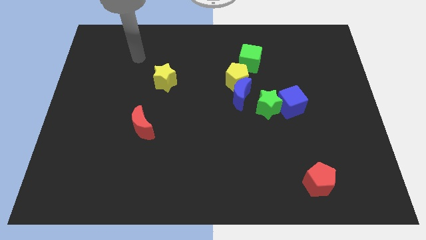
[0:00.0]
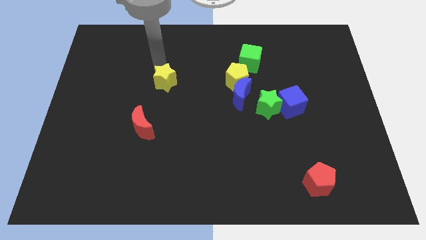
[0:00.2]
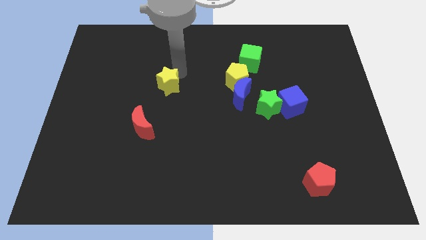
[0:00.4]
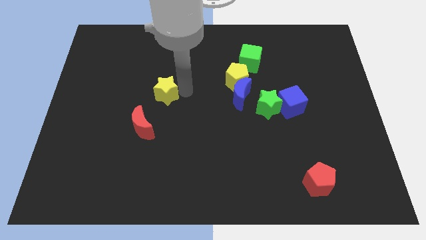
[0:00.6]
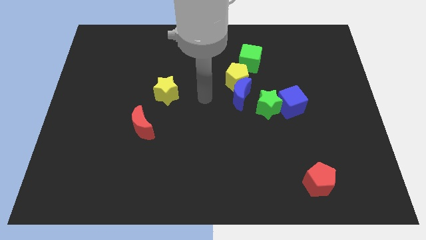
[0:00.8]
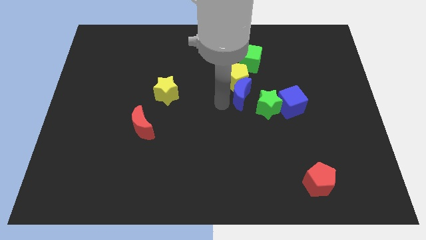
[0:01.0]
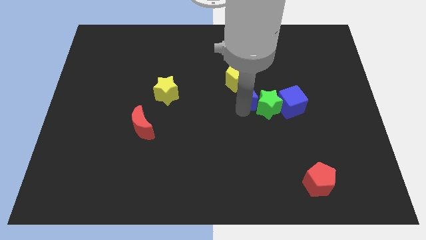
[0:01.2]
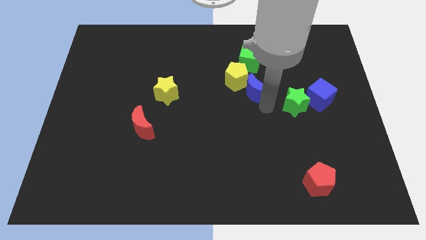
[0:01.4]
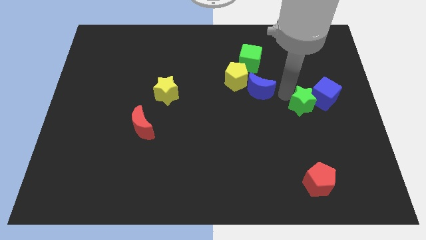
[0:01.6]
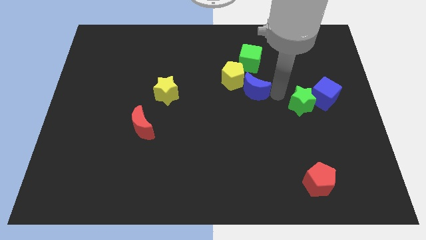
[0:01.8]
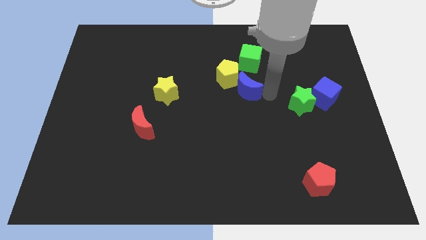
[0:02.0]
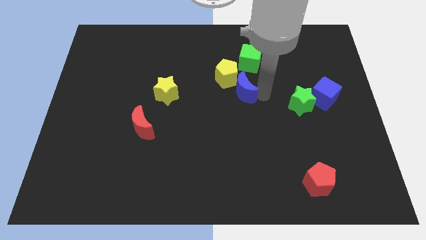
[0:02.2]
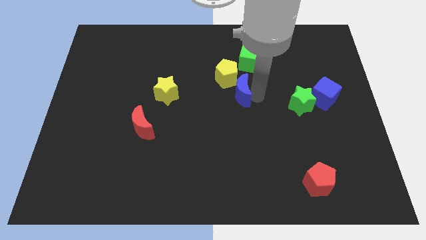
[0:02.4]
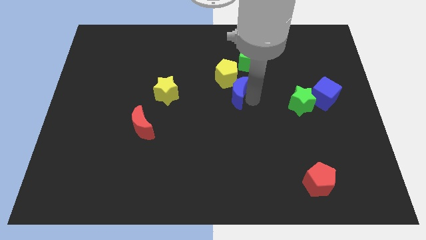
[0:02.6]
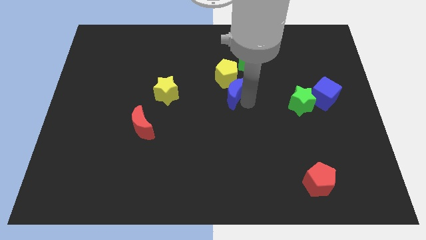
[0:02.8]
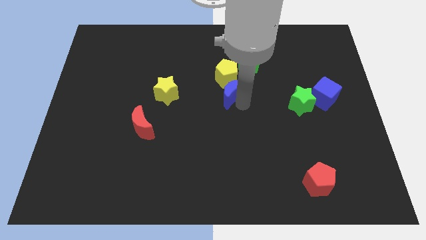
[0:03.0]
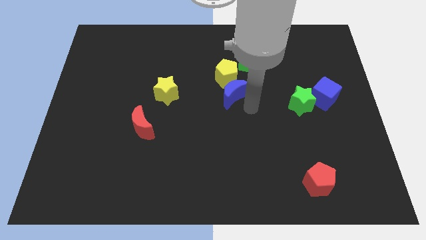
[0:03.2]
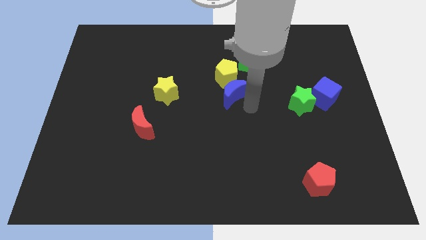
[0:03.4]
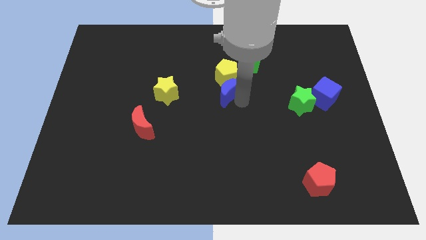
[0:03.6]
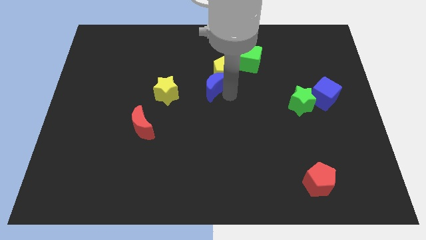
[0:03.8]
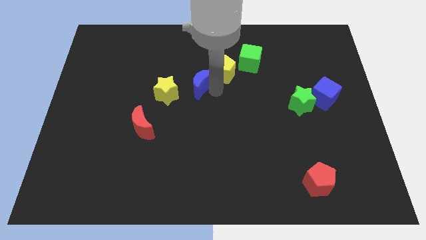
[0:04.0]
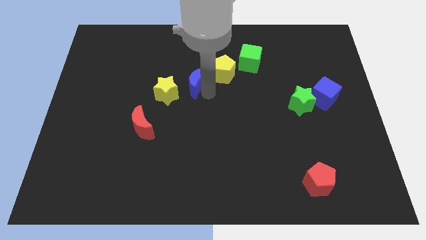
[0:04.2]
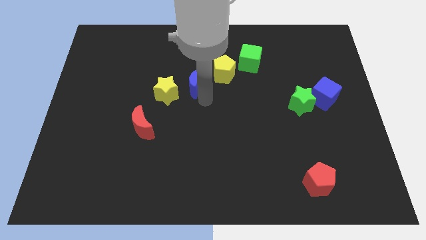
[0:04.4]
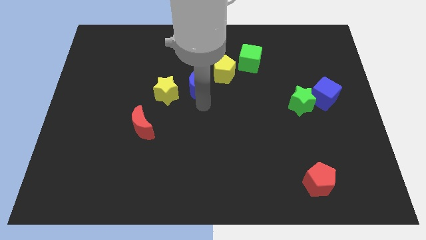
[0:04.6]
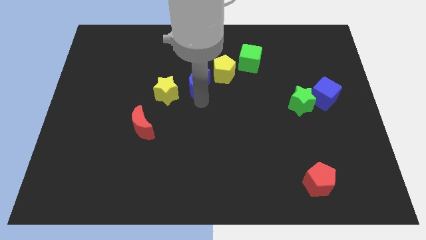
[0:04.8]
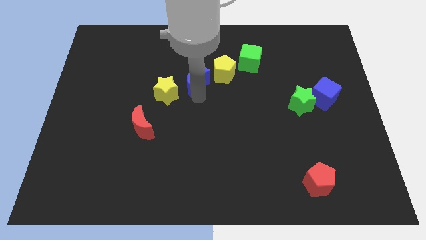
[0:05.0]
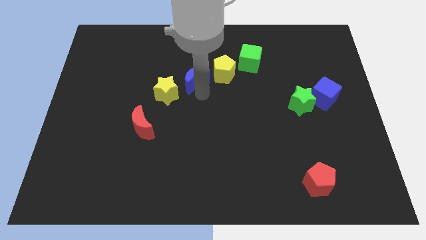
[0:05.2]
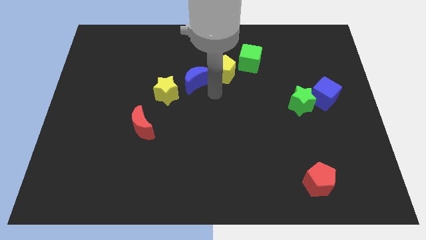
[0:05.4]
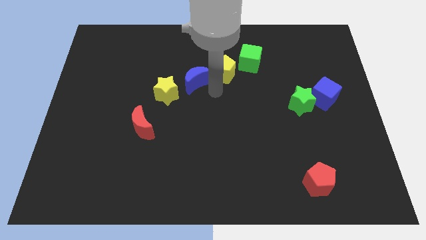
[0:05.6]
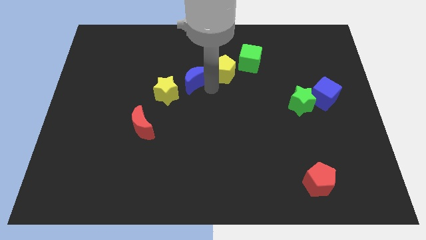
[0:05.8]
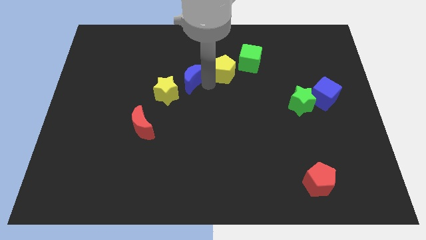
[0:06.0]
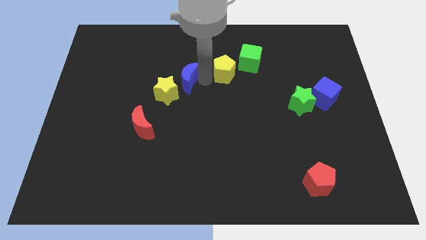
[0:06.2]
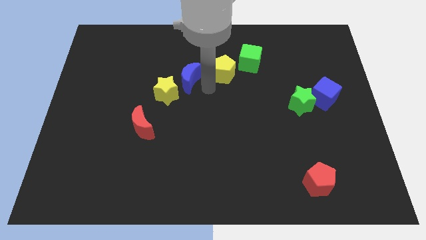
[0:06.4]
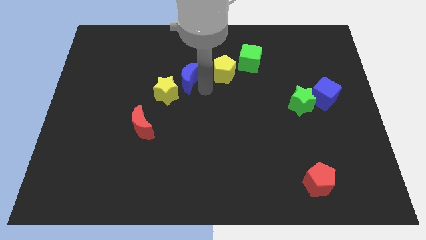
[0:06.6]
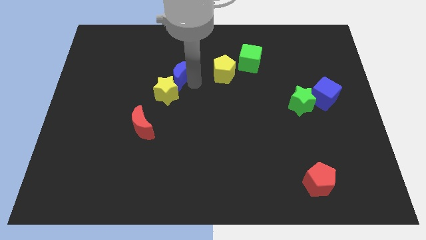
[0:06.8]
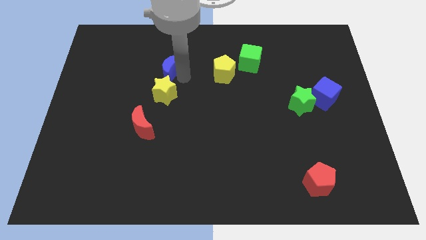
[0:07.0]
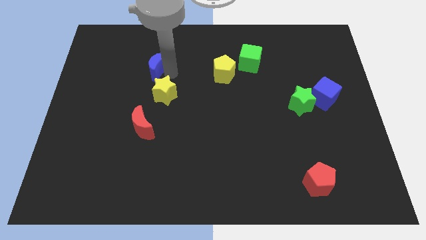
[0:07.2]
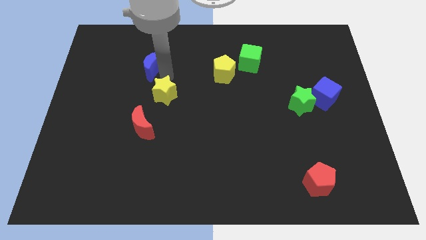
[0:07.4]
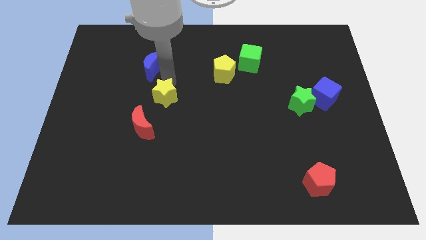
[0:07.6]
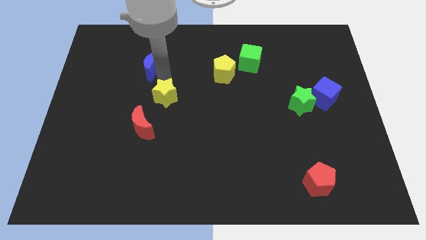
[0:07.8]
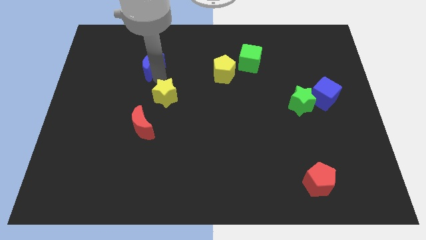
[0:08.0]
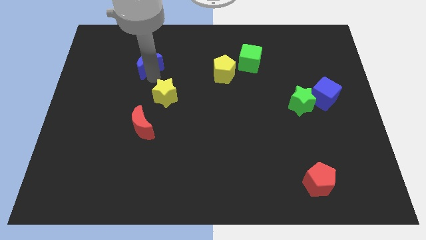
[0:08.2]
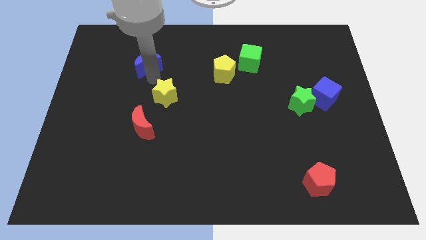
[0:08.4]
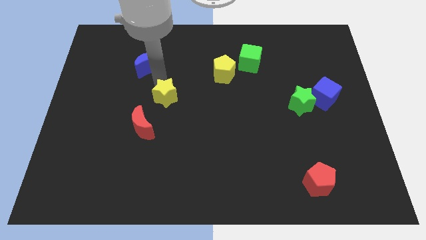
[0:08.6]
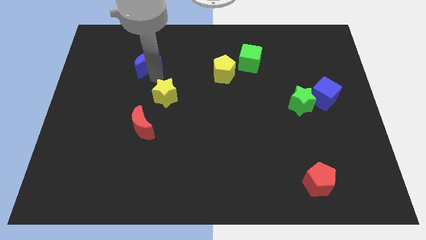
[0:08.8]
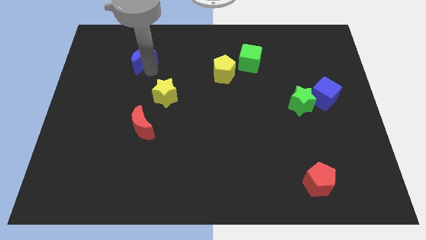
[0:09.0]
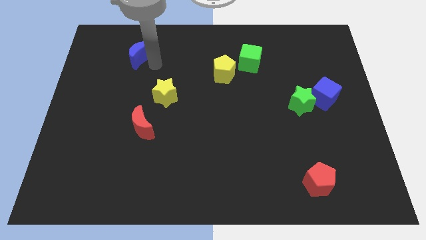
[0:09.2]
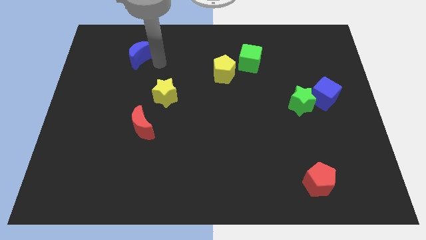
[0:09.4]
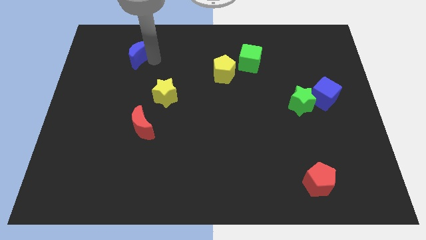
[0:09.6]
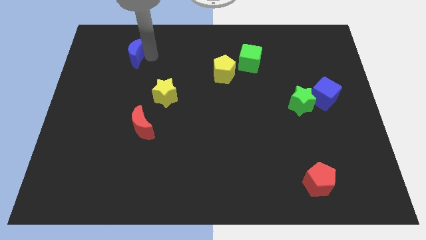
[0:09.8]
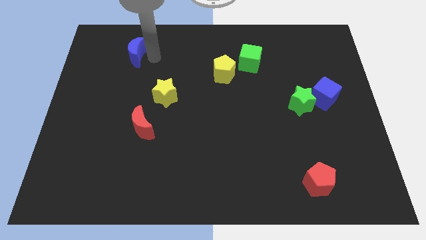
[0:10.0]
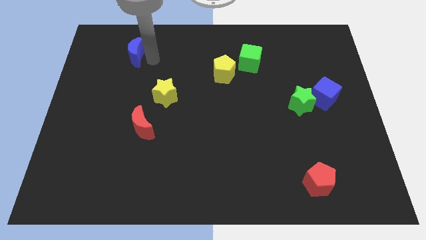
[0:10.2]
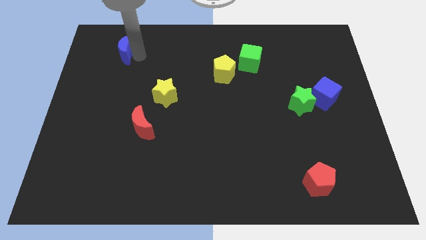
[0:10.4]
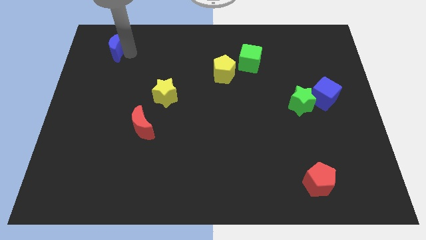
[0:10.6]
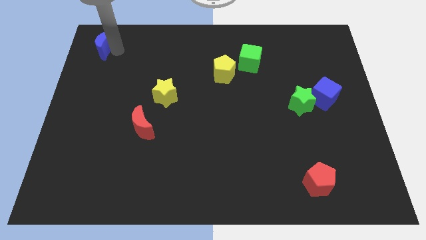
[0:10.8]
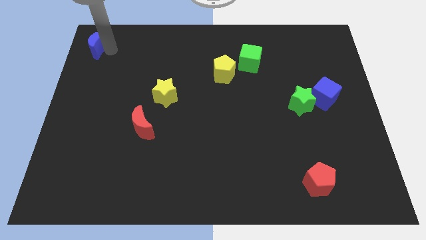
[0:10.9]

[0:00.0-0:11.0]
put the blue moon to the top left
